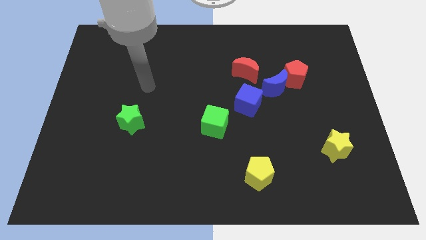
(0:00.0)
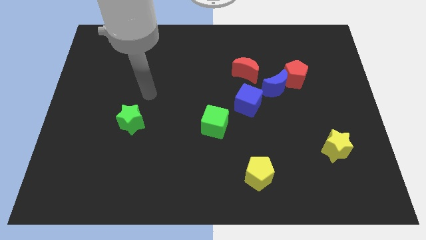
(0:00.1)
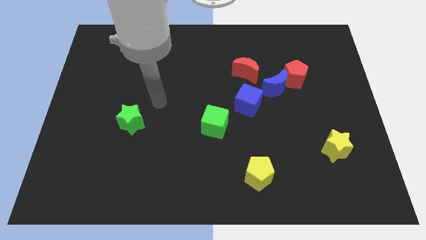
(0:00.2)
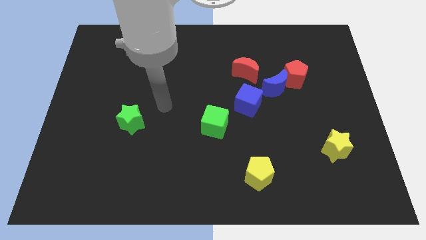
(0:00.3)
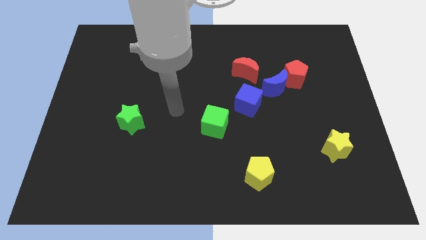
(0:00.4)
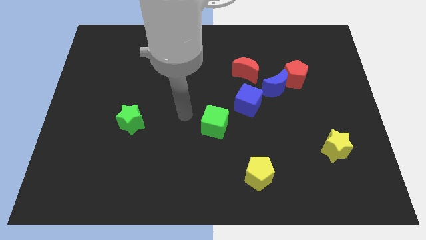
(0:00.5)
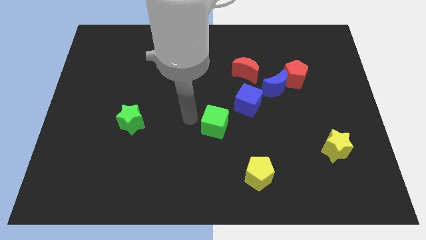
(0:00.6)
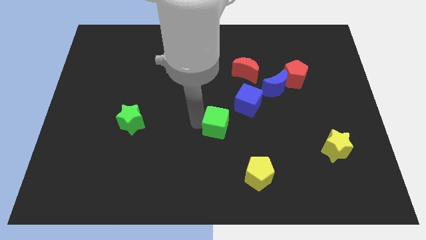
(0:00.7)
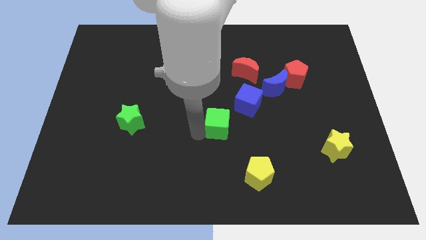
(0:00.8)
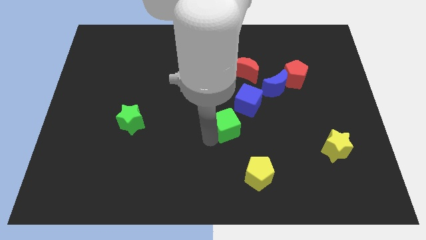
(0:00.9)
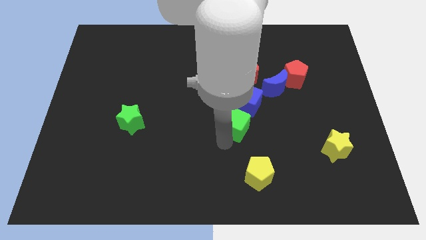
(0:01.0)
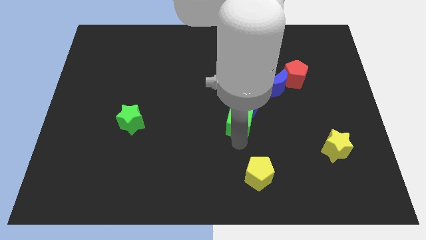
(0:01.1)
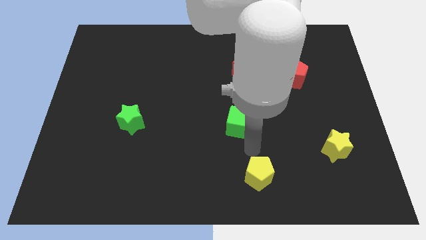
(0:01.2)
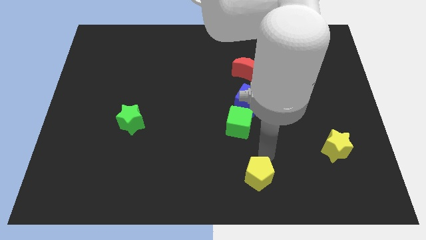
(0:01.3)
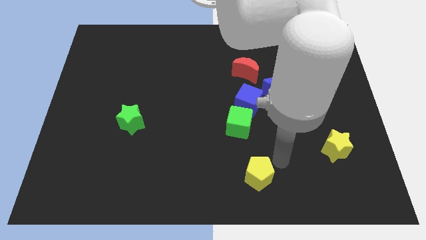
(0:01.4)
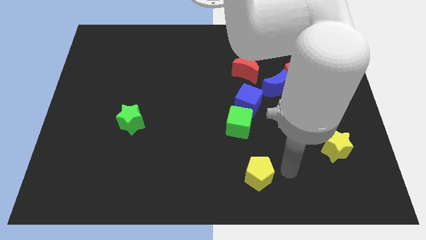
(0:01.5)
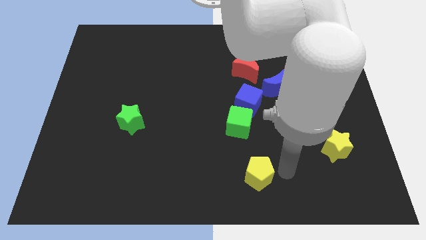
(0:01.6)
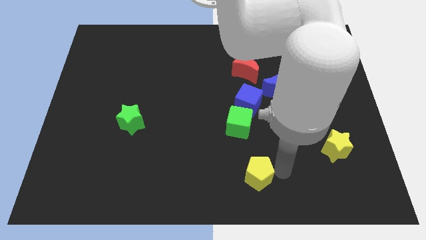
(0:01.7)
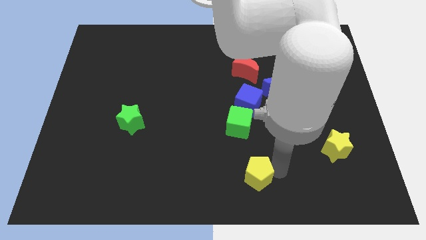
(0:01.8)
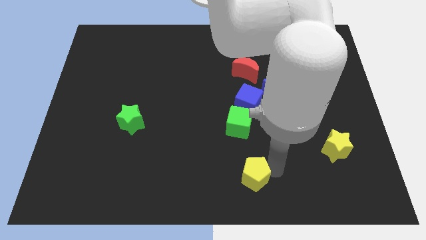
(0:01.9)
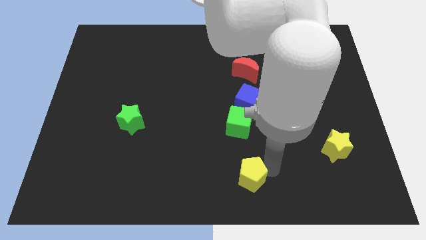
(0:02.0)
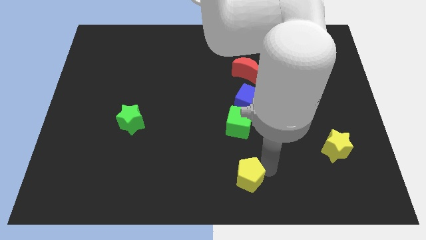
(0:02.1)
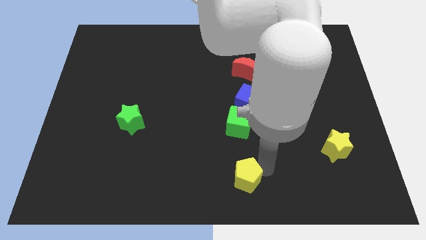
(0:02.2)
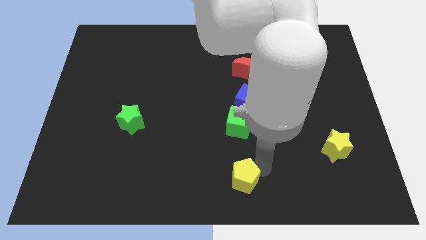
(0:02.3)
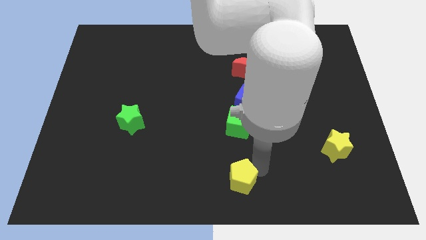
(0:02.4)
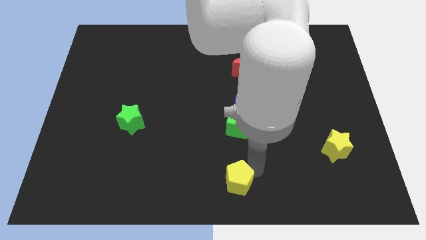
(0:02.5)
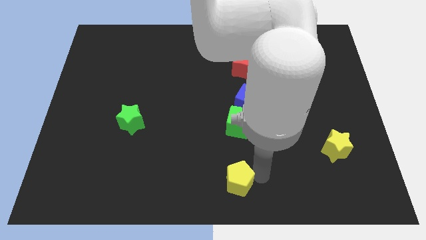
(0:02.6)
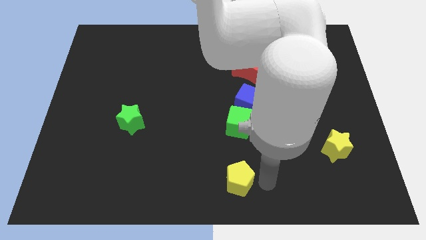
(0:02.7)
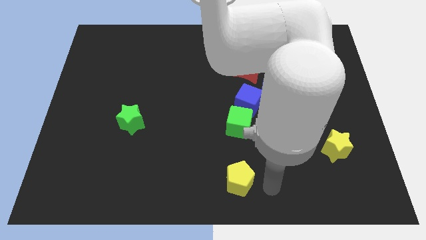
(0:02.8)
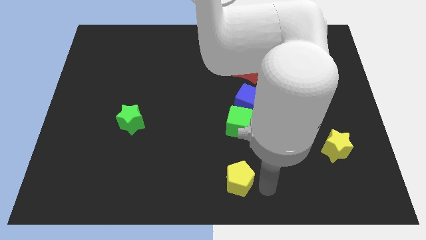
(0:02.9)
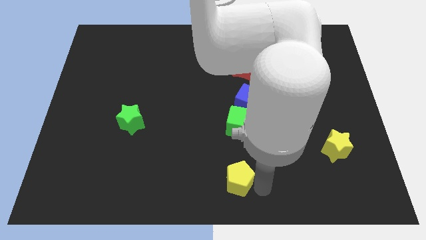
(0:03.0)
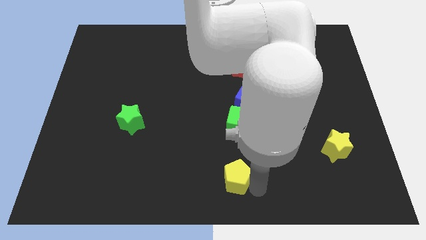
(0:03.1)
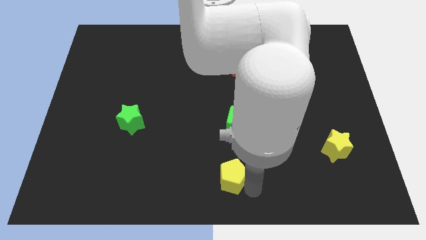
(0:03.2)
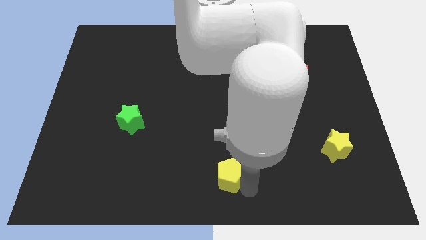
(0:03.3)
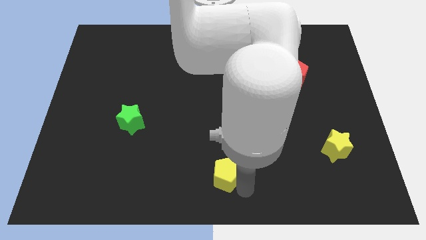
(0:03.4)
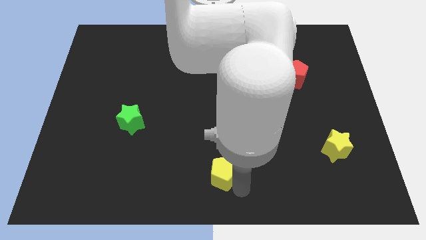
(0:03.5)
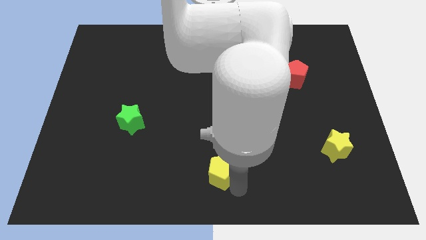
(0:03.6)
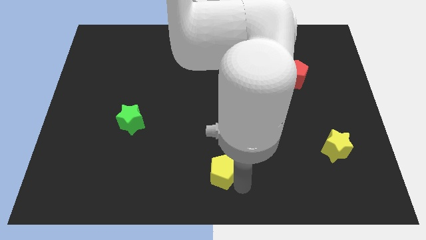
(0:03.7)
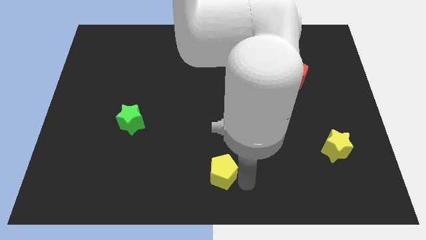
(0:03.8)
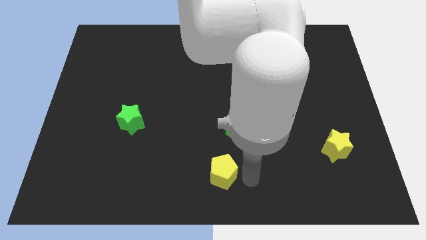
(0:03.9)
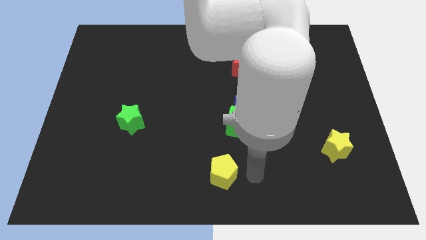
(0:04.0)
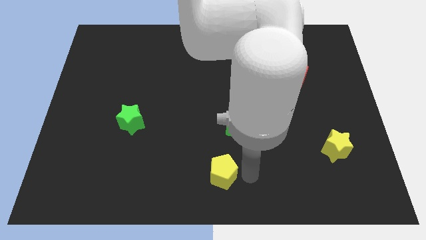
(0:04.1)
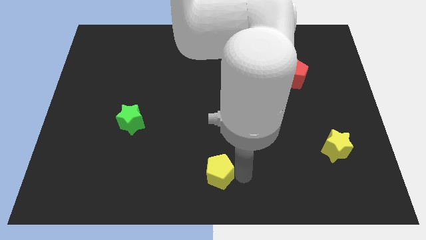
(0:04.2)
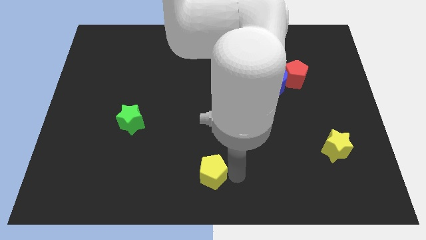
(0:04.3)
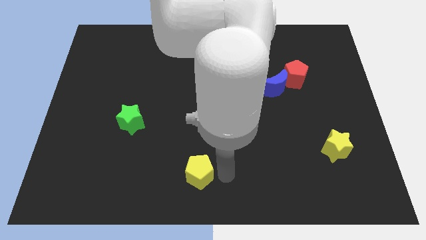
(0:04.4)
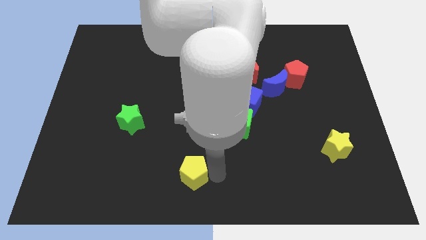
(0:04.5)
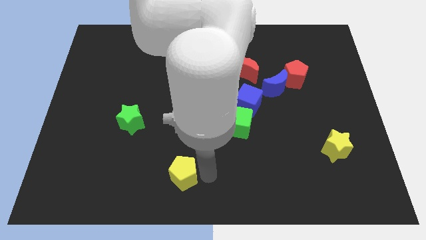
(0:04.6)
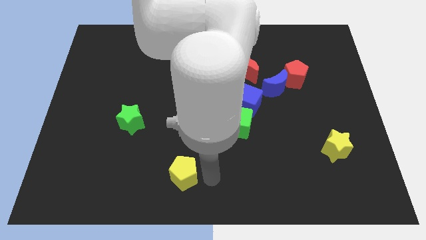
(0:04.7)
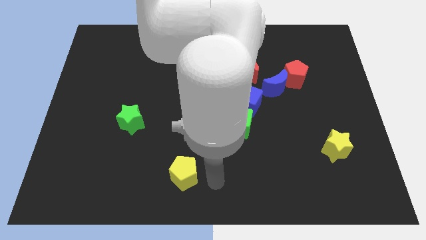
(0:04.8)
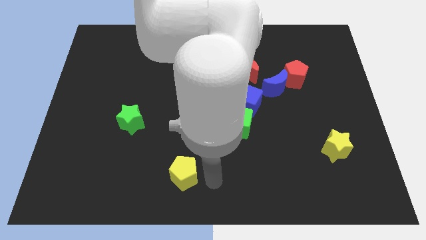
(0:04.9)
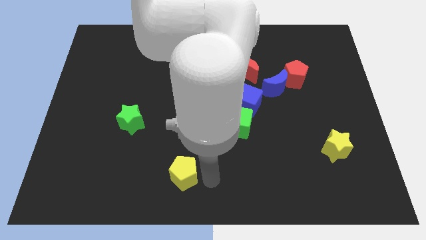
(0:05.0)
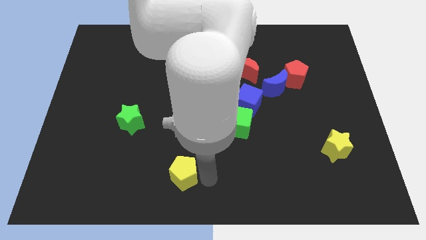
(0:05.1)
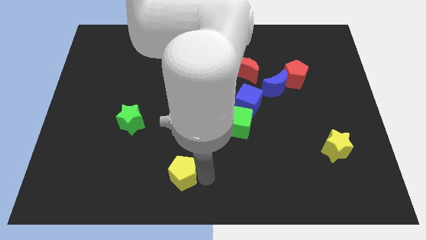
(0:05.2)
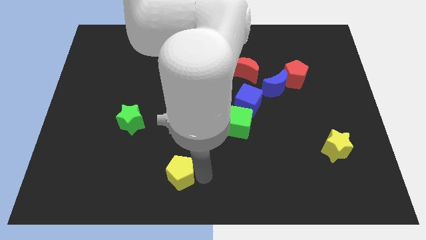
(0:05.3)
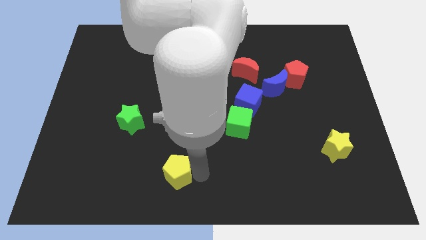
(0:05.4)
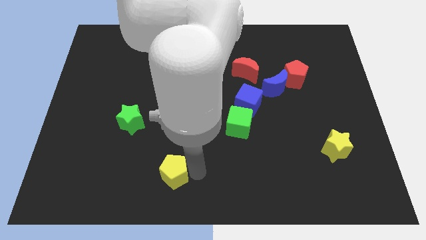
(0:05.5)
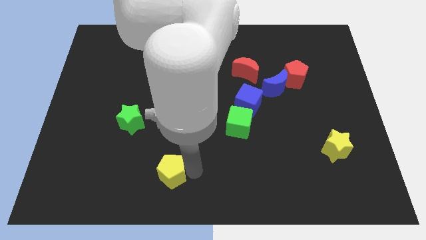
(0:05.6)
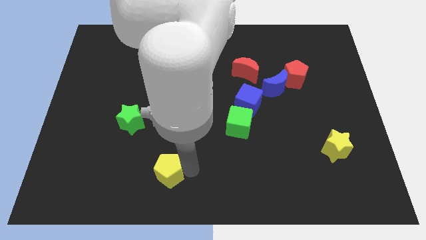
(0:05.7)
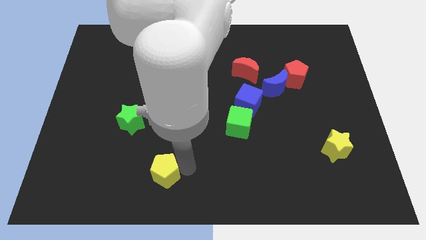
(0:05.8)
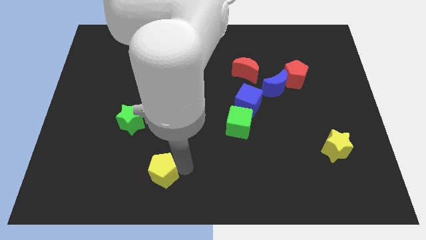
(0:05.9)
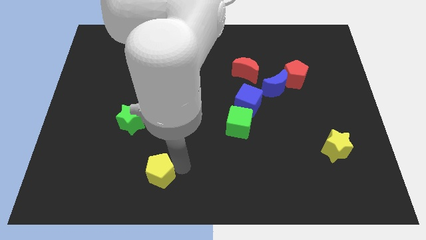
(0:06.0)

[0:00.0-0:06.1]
move the yellow pentagon left

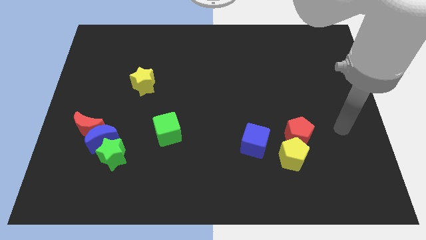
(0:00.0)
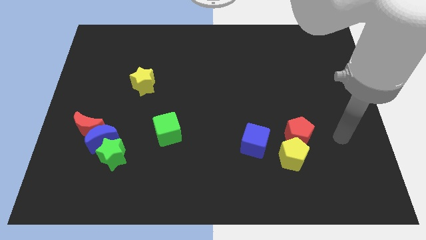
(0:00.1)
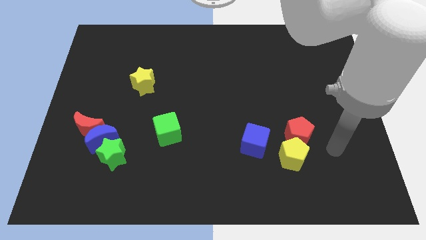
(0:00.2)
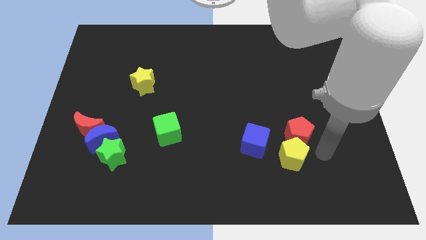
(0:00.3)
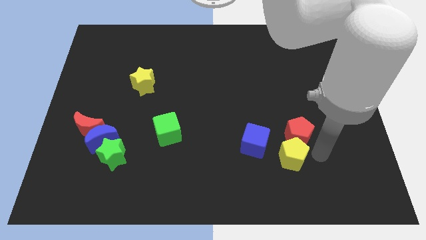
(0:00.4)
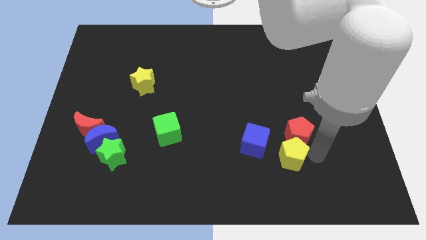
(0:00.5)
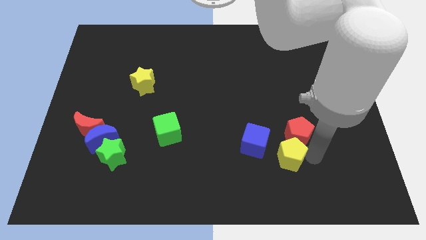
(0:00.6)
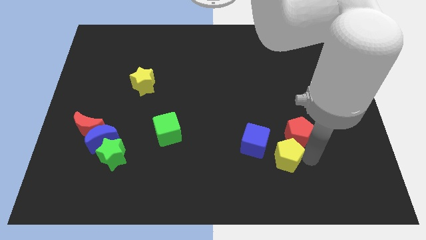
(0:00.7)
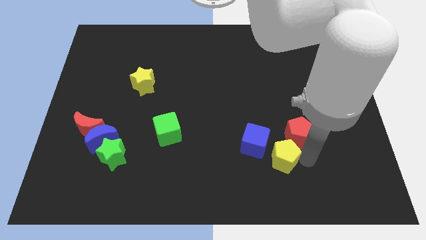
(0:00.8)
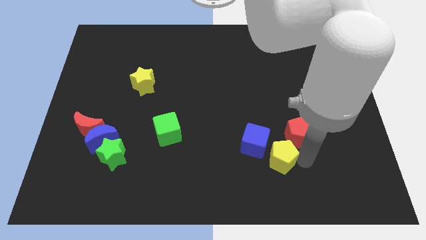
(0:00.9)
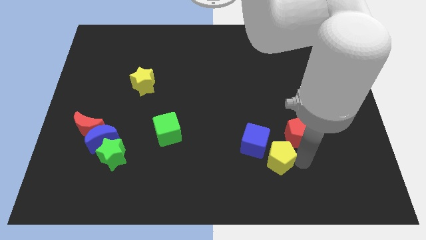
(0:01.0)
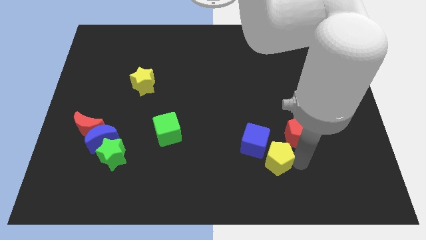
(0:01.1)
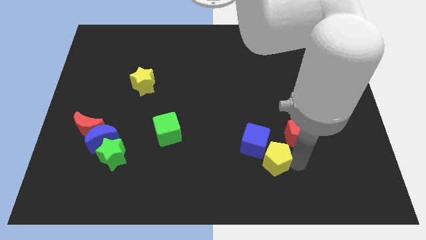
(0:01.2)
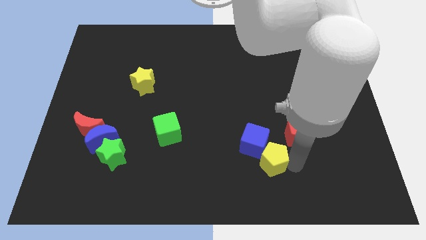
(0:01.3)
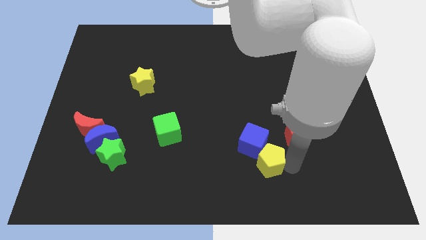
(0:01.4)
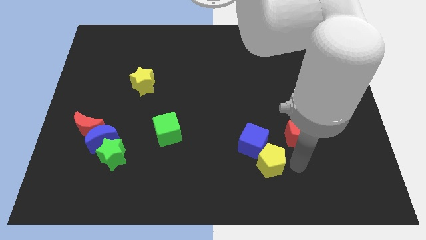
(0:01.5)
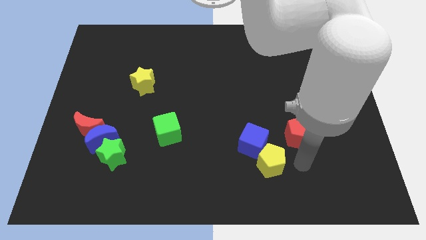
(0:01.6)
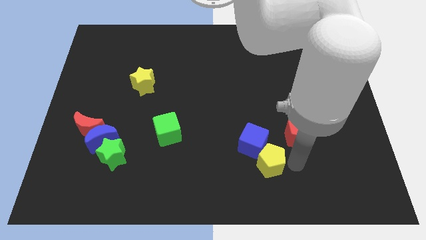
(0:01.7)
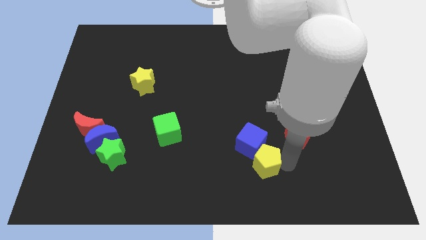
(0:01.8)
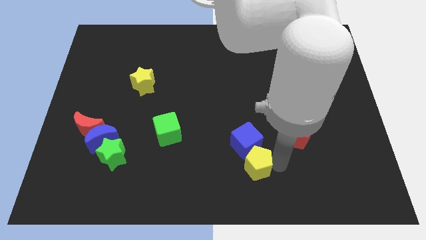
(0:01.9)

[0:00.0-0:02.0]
push the yellow pentagon slightly to the left
